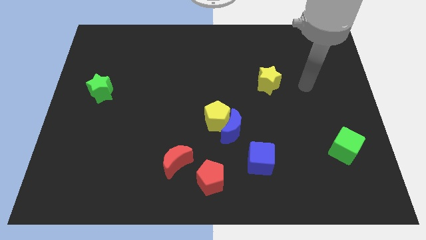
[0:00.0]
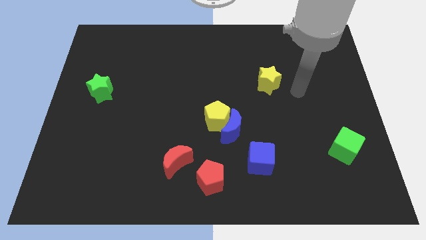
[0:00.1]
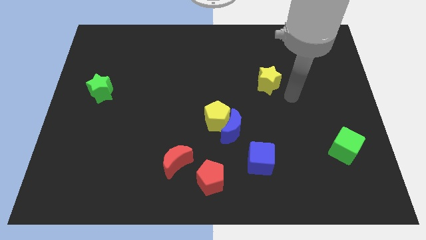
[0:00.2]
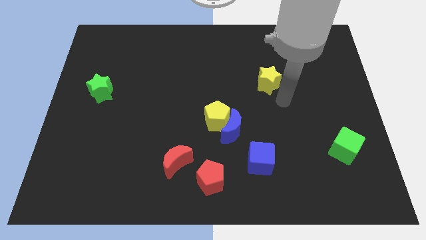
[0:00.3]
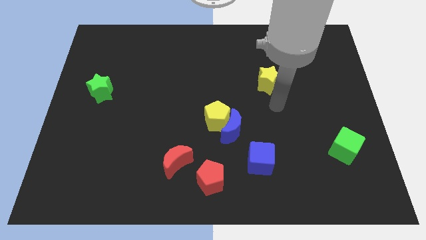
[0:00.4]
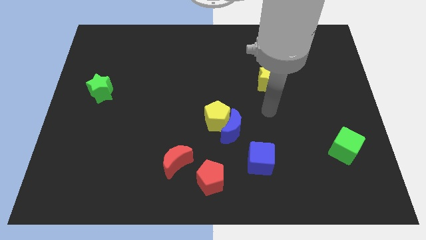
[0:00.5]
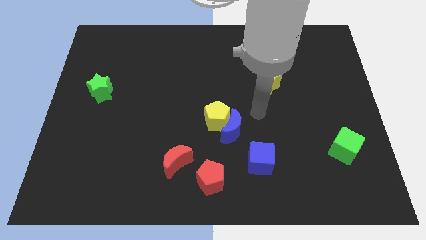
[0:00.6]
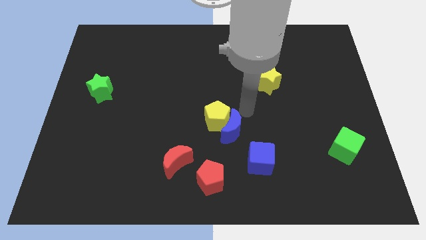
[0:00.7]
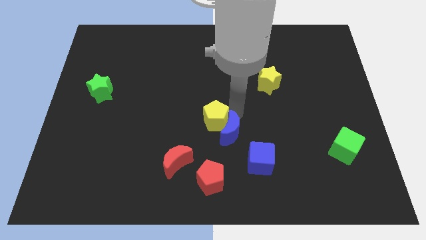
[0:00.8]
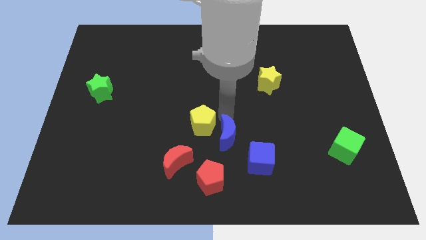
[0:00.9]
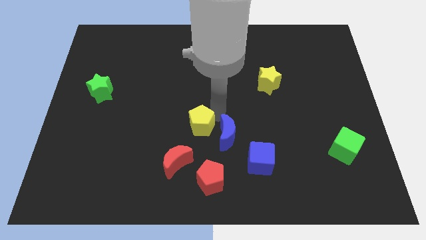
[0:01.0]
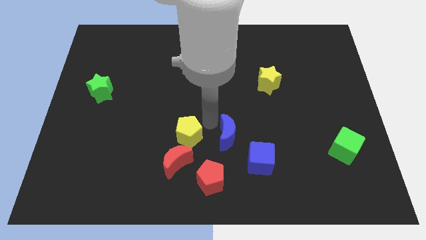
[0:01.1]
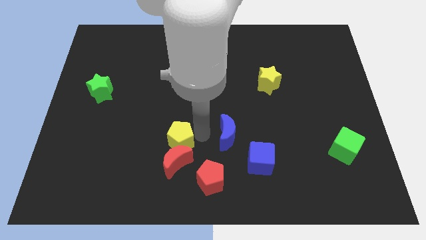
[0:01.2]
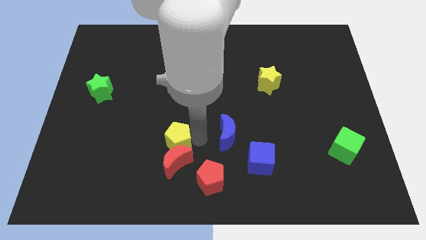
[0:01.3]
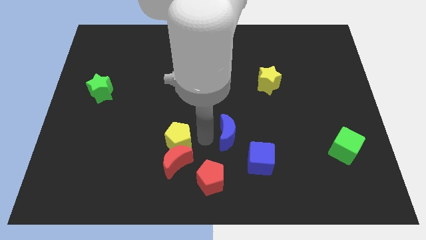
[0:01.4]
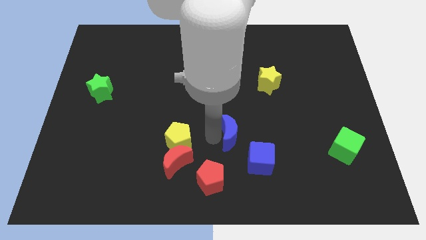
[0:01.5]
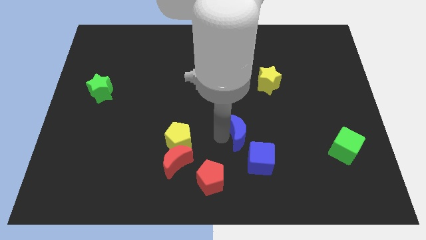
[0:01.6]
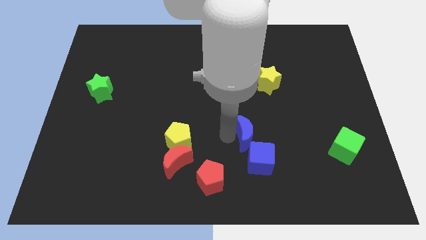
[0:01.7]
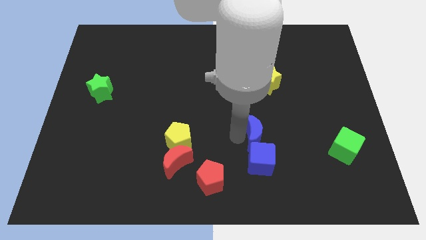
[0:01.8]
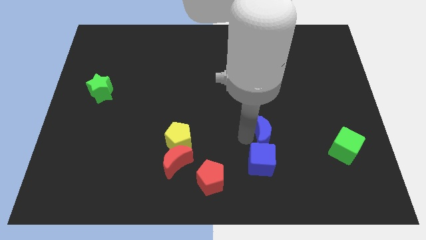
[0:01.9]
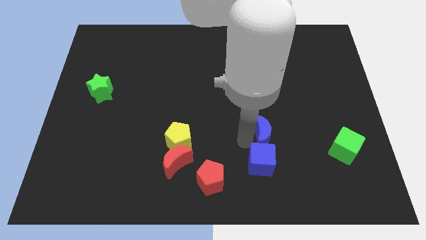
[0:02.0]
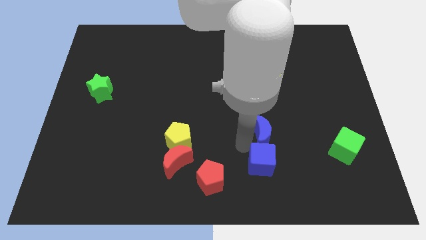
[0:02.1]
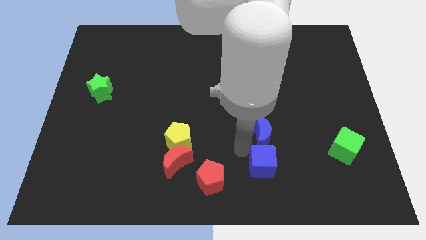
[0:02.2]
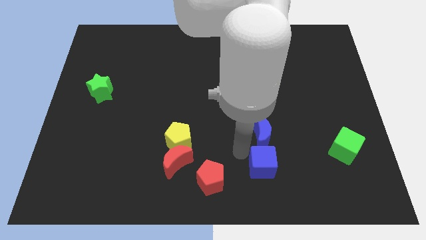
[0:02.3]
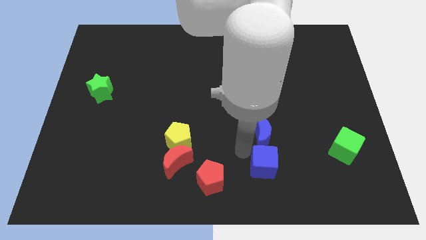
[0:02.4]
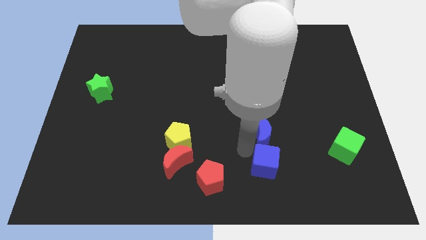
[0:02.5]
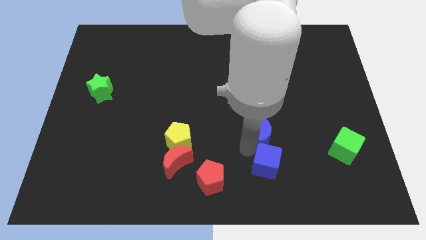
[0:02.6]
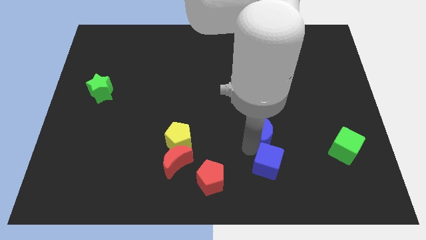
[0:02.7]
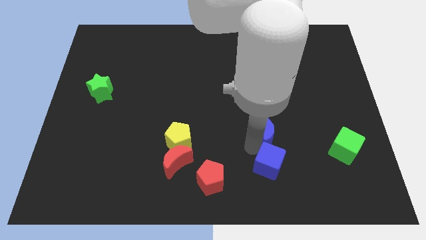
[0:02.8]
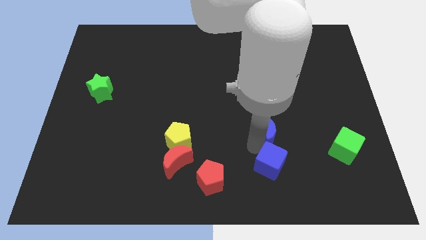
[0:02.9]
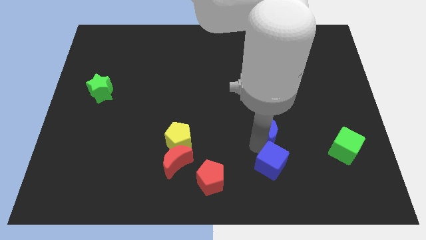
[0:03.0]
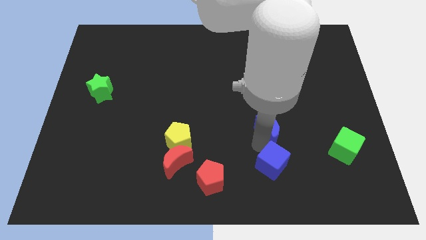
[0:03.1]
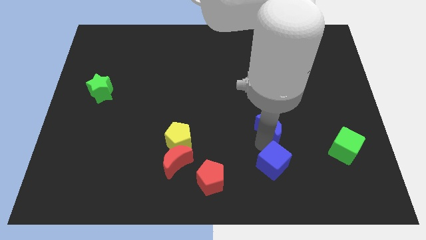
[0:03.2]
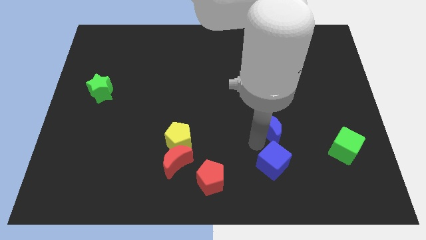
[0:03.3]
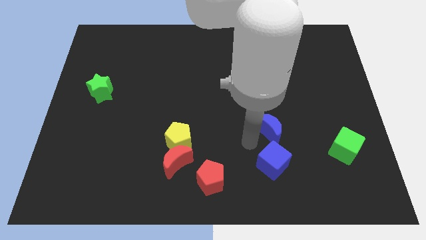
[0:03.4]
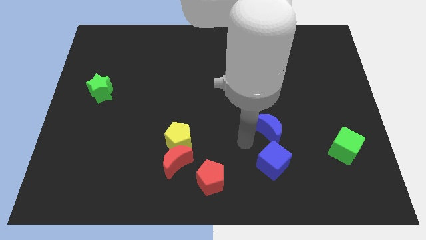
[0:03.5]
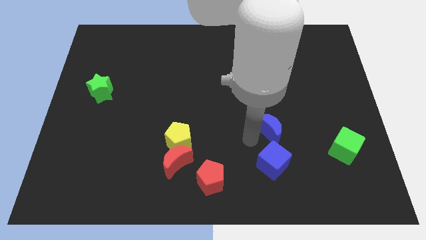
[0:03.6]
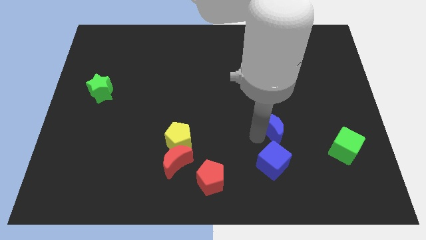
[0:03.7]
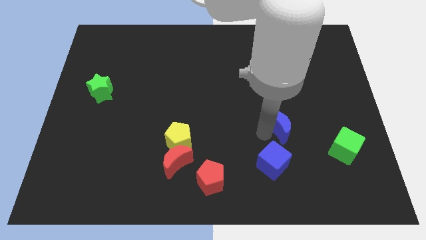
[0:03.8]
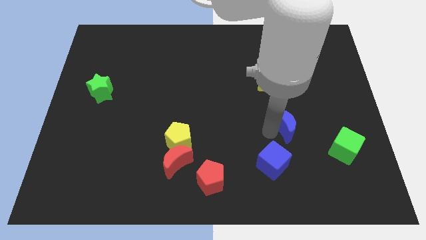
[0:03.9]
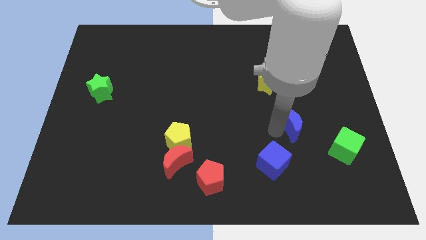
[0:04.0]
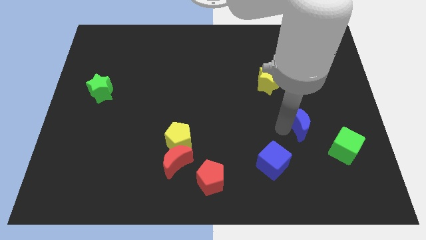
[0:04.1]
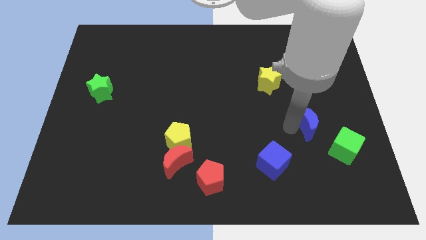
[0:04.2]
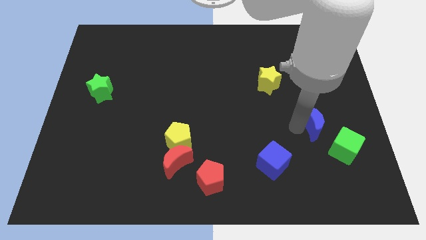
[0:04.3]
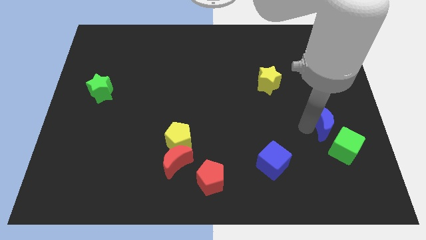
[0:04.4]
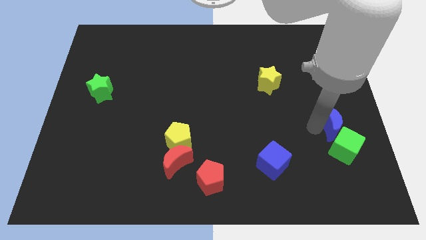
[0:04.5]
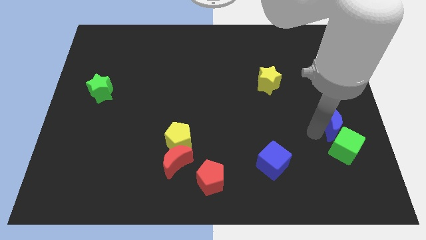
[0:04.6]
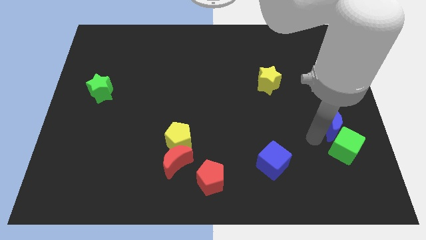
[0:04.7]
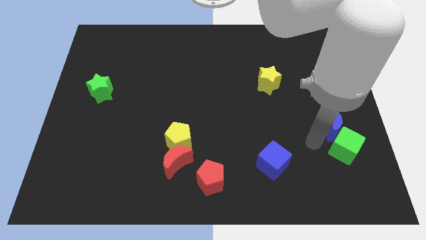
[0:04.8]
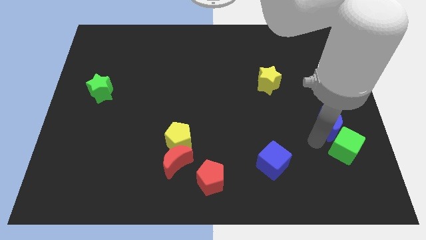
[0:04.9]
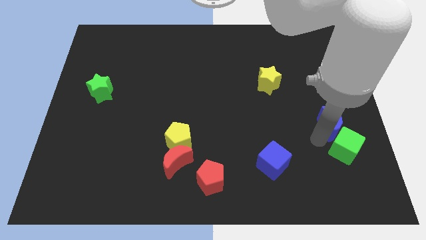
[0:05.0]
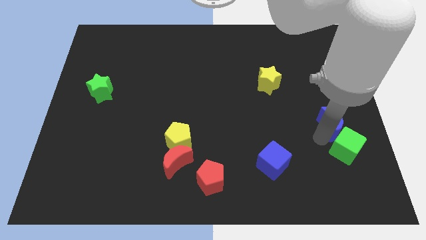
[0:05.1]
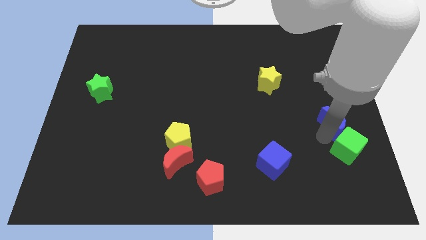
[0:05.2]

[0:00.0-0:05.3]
put the blue moon to the center right

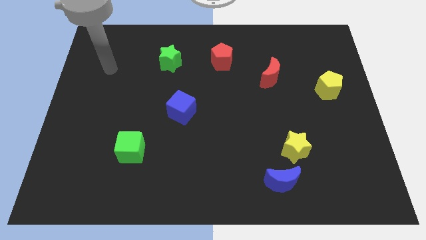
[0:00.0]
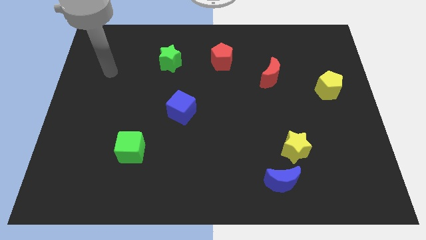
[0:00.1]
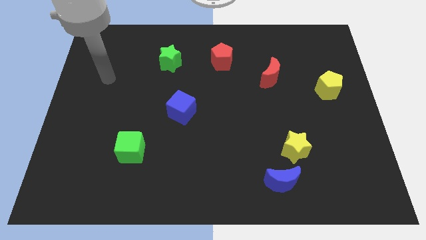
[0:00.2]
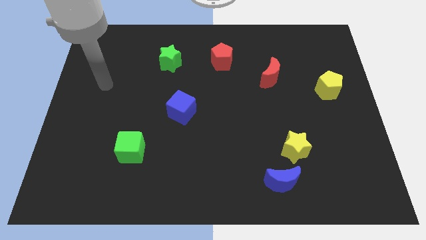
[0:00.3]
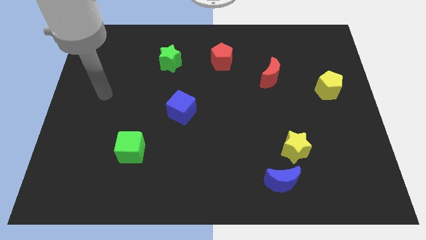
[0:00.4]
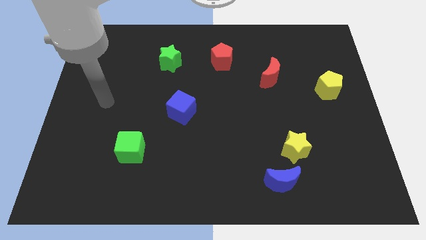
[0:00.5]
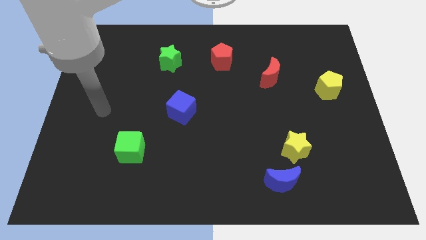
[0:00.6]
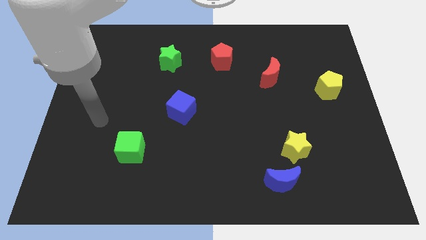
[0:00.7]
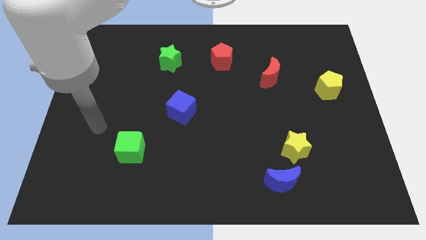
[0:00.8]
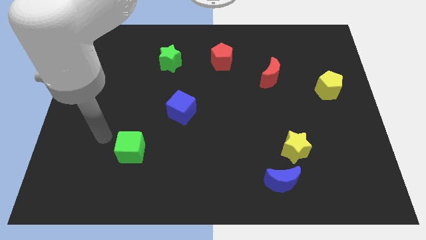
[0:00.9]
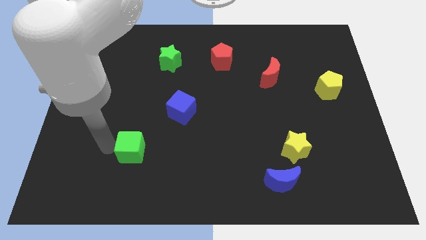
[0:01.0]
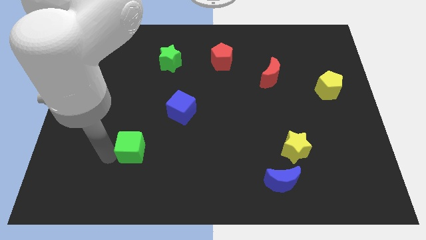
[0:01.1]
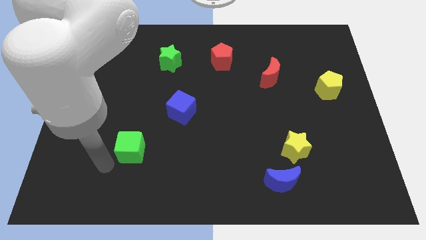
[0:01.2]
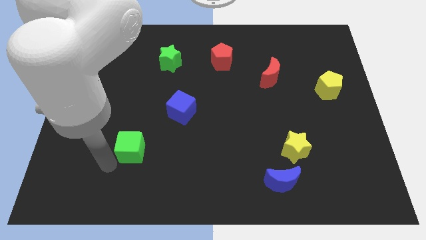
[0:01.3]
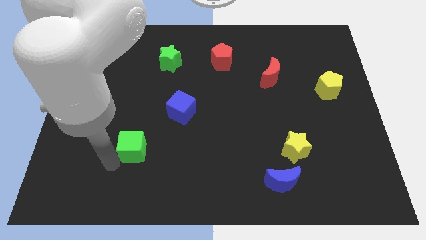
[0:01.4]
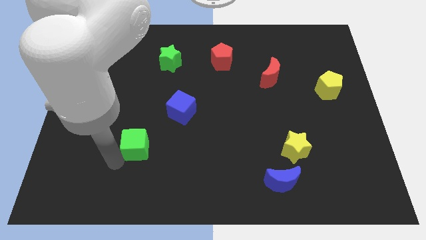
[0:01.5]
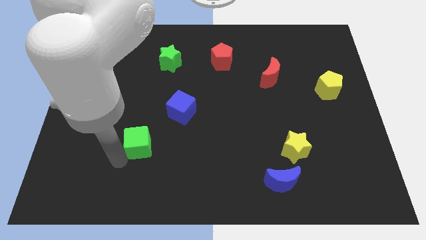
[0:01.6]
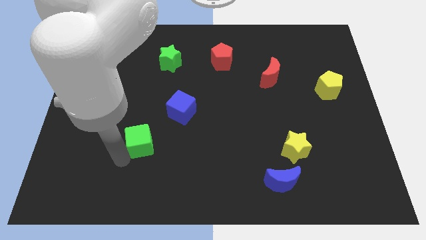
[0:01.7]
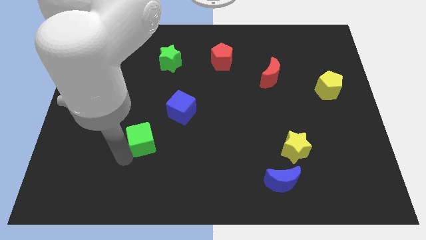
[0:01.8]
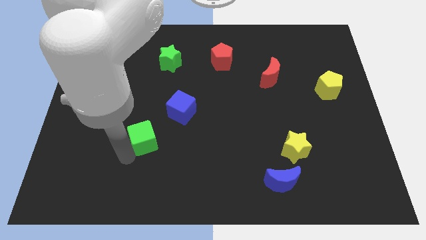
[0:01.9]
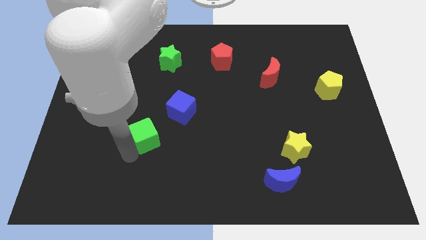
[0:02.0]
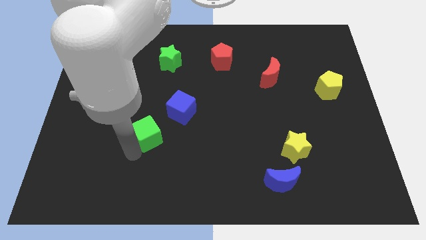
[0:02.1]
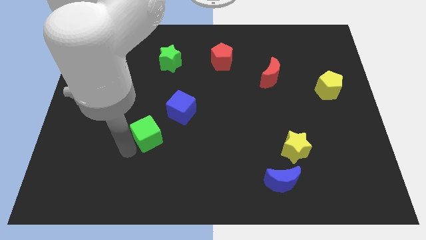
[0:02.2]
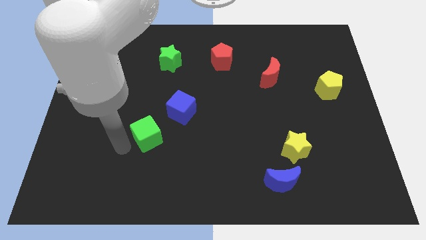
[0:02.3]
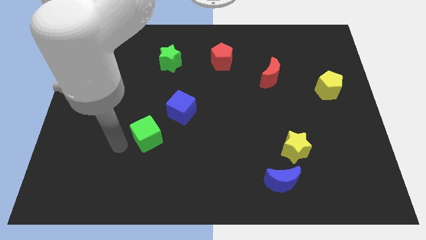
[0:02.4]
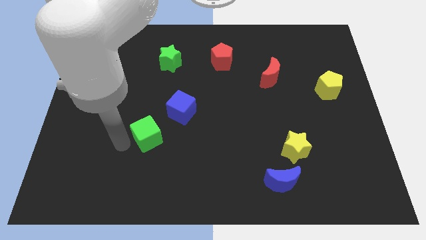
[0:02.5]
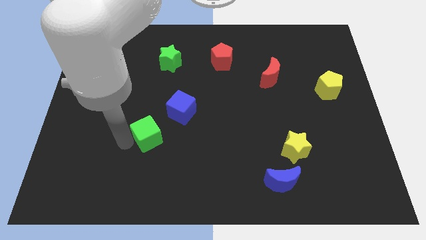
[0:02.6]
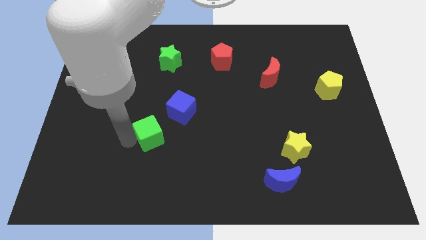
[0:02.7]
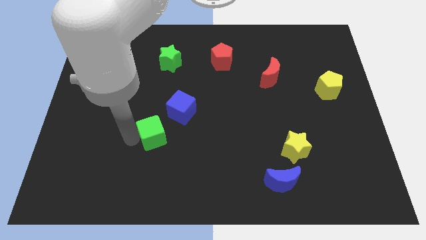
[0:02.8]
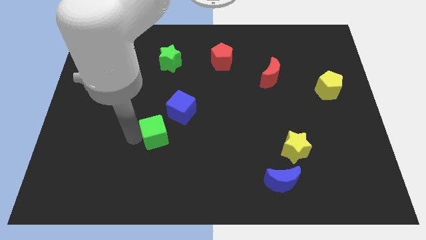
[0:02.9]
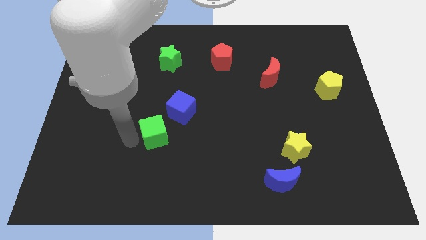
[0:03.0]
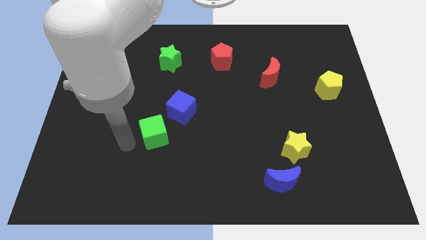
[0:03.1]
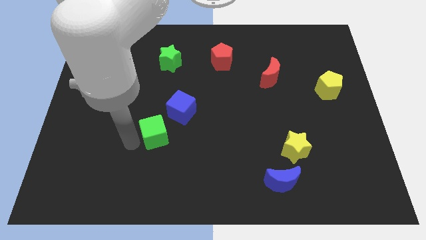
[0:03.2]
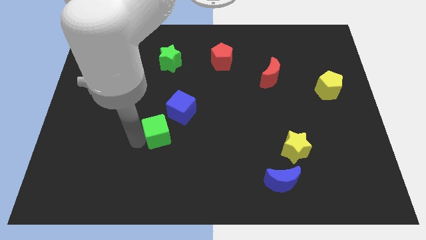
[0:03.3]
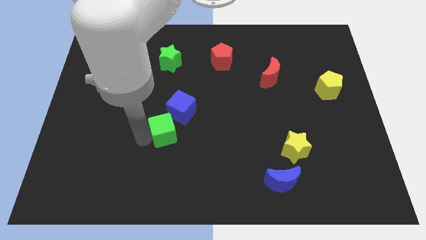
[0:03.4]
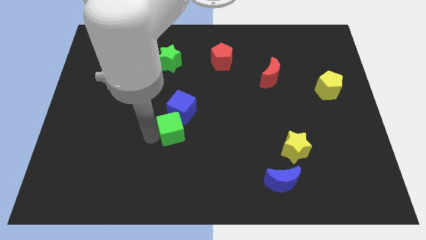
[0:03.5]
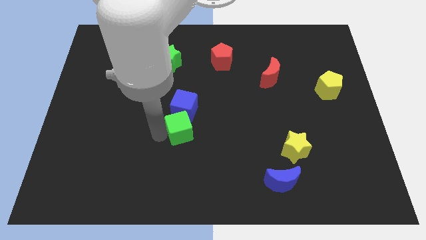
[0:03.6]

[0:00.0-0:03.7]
put the green cube to the center
